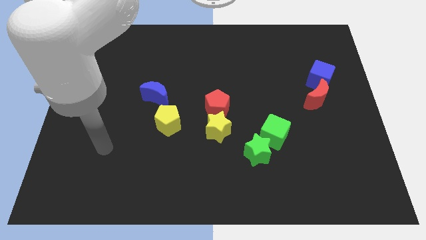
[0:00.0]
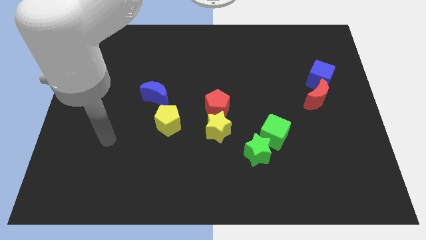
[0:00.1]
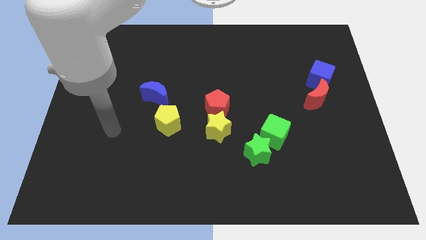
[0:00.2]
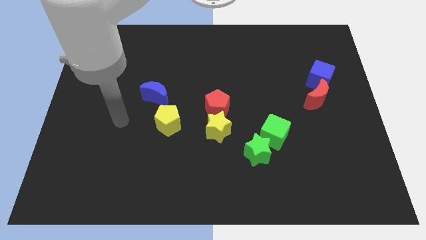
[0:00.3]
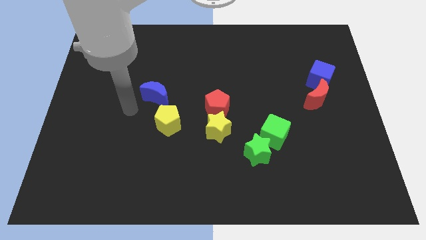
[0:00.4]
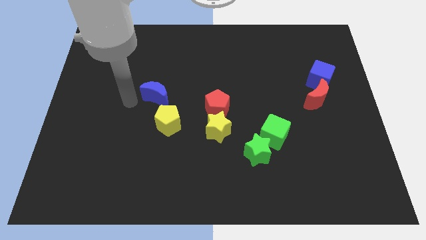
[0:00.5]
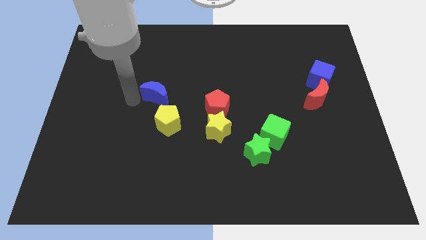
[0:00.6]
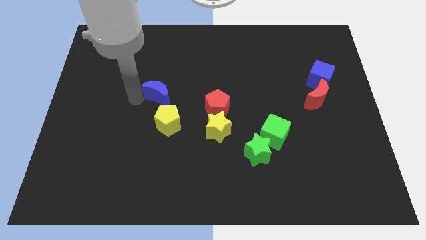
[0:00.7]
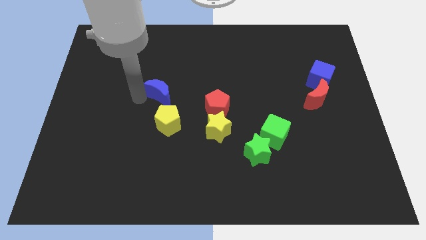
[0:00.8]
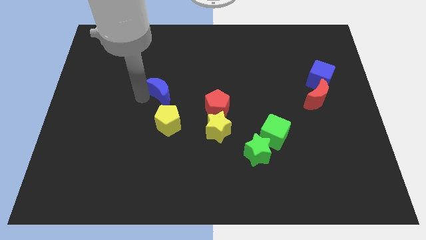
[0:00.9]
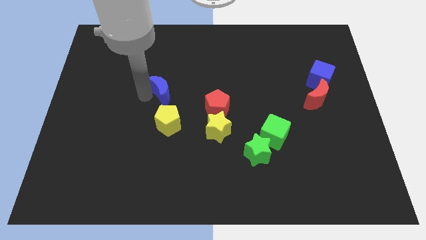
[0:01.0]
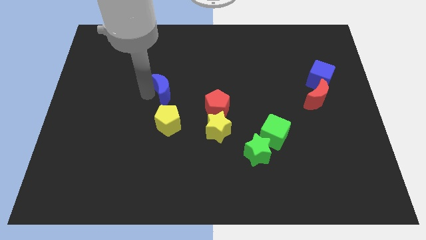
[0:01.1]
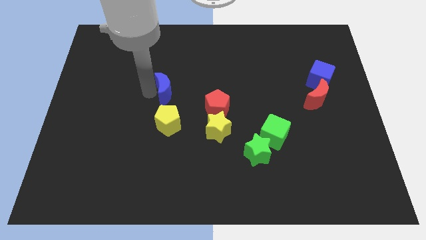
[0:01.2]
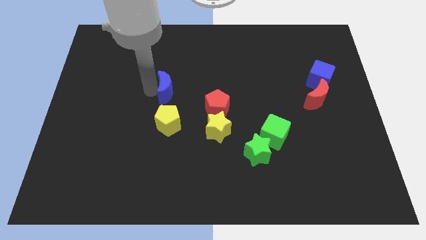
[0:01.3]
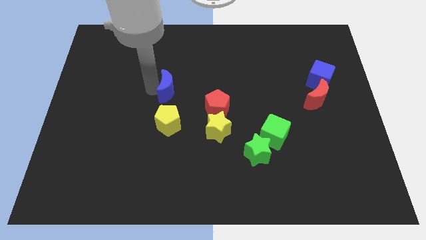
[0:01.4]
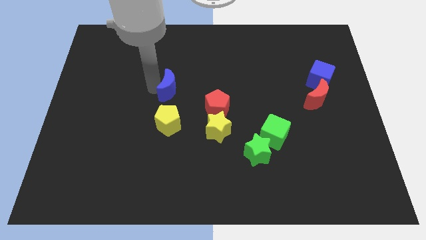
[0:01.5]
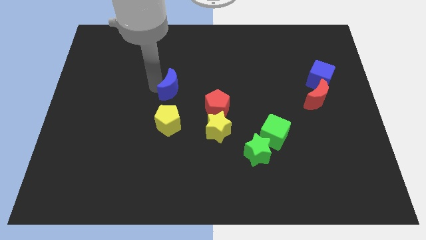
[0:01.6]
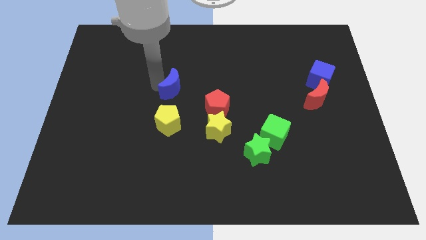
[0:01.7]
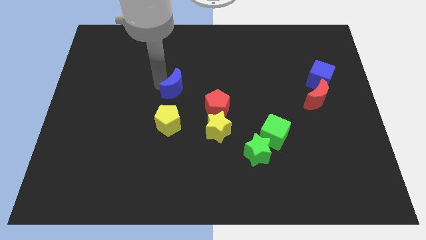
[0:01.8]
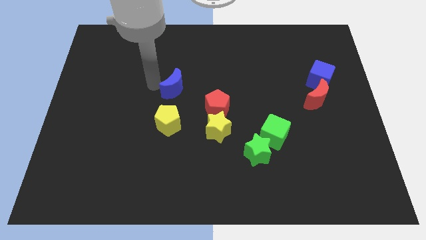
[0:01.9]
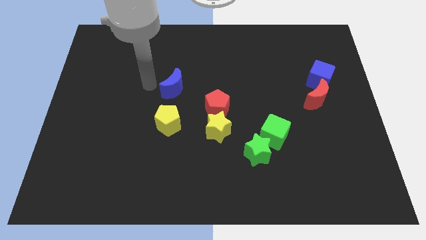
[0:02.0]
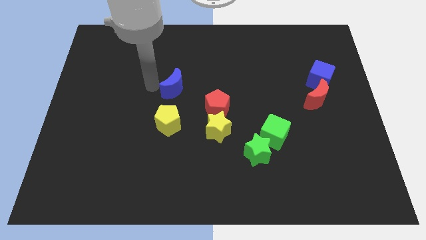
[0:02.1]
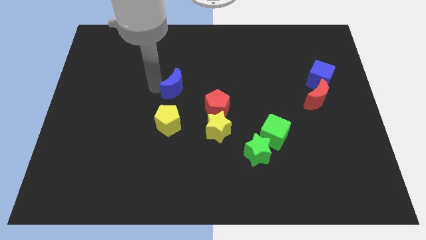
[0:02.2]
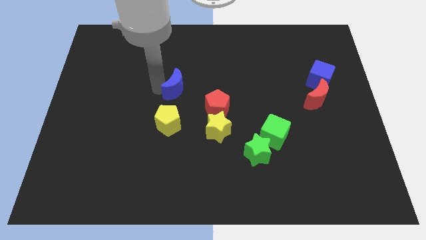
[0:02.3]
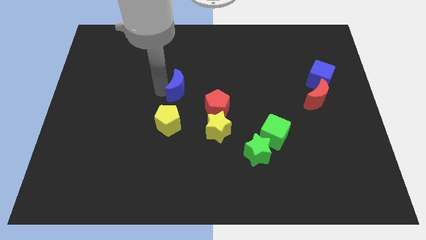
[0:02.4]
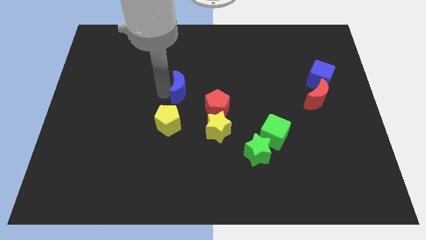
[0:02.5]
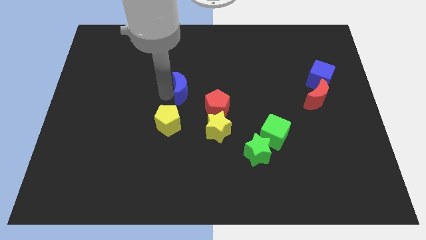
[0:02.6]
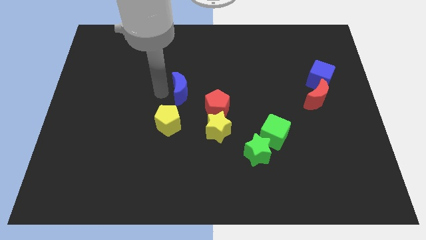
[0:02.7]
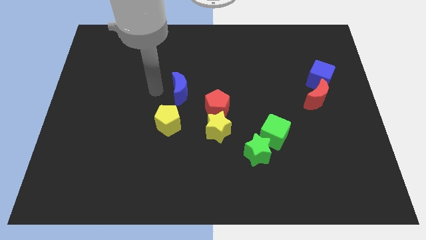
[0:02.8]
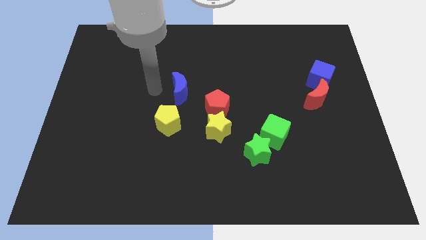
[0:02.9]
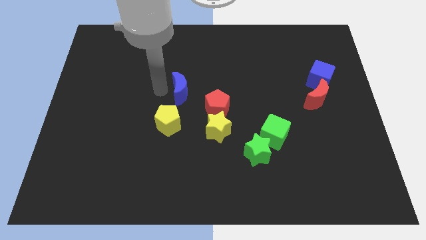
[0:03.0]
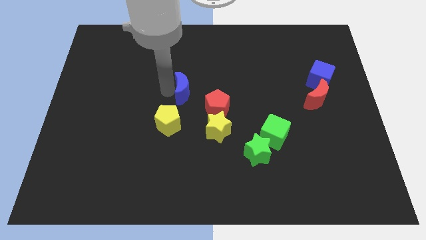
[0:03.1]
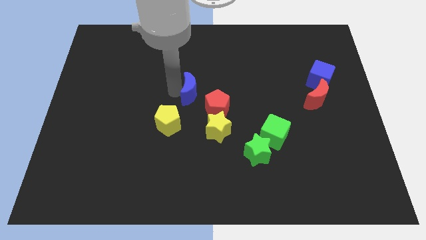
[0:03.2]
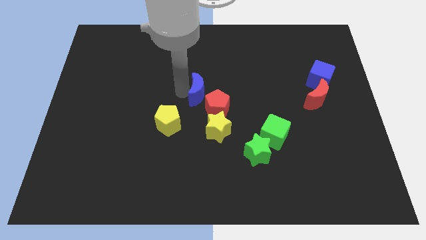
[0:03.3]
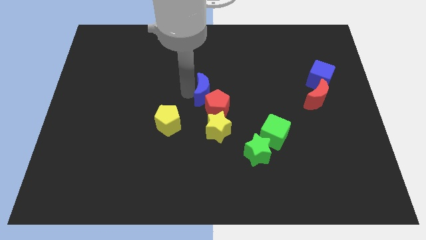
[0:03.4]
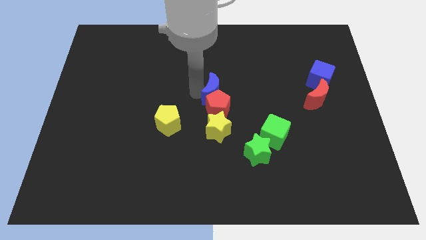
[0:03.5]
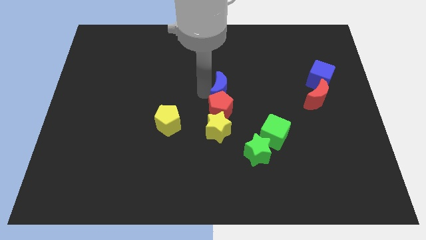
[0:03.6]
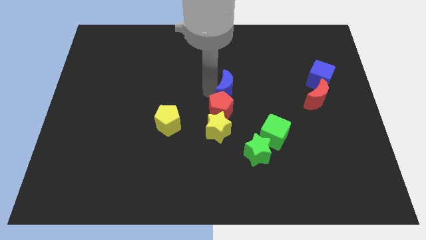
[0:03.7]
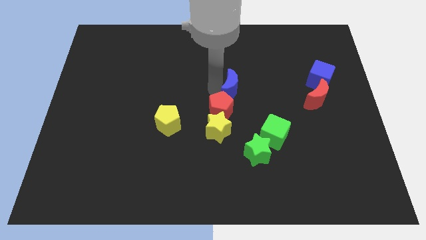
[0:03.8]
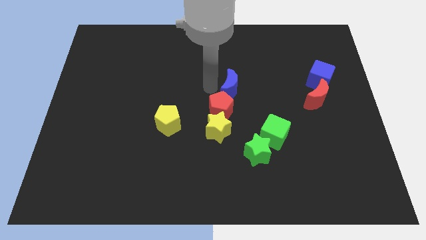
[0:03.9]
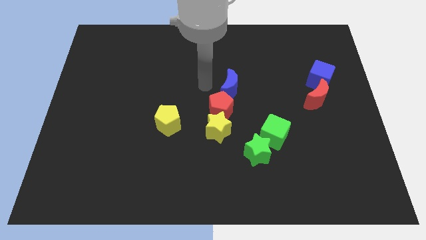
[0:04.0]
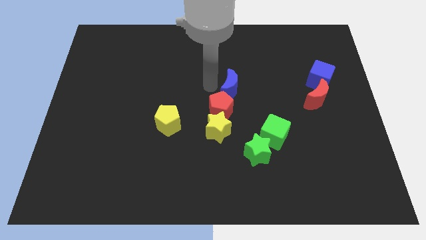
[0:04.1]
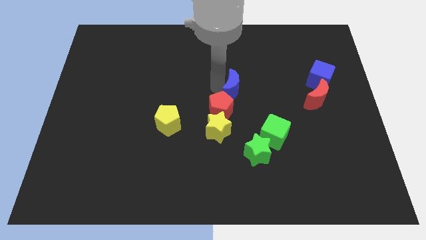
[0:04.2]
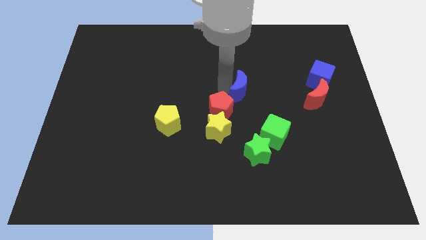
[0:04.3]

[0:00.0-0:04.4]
slide the blue moon right

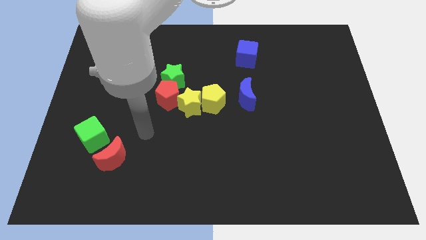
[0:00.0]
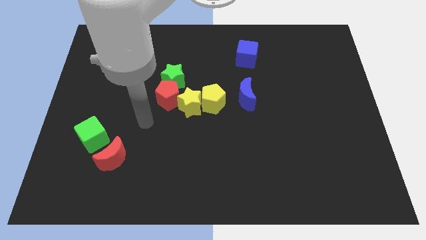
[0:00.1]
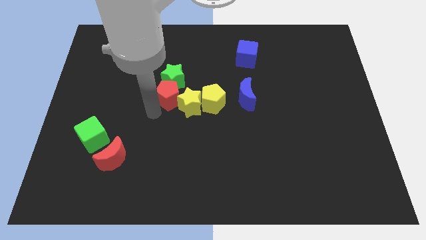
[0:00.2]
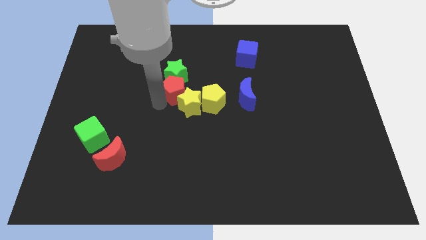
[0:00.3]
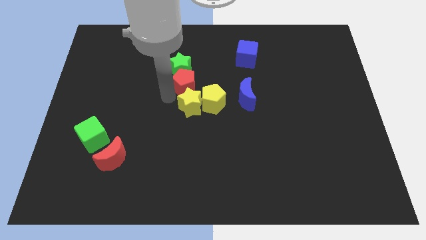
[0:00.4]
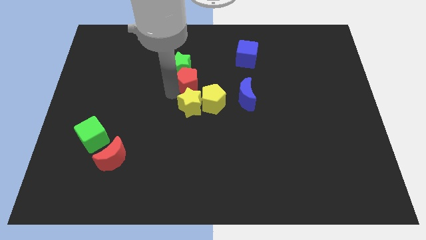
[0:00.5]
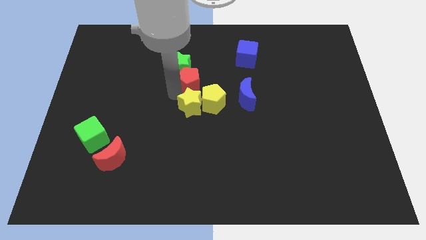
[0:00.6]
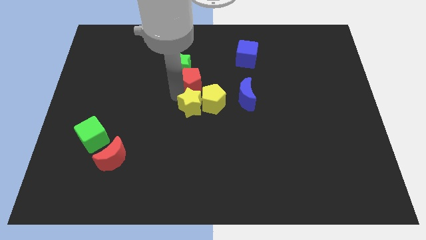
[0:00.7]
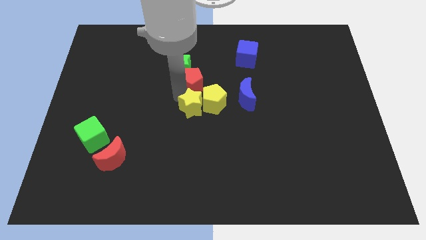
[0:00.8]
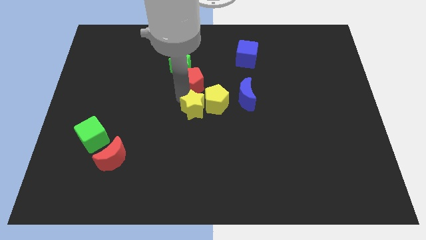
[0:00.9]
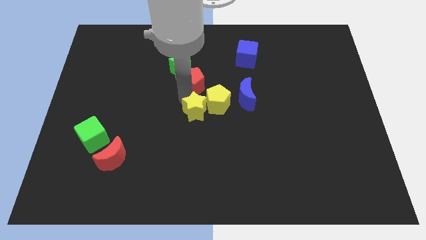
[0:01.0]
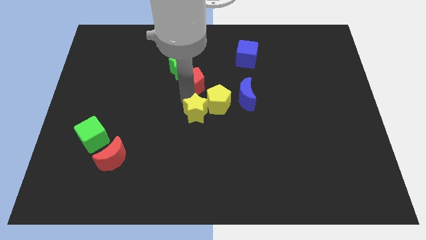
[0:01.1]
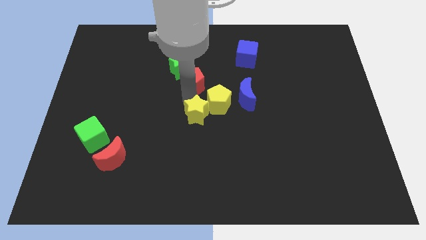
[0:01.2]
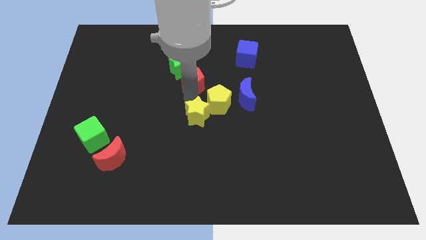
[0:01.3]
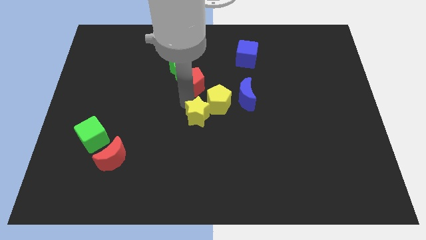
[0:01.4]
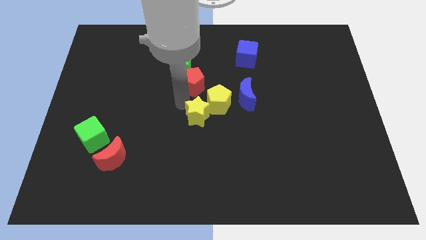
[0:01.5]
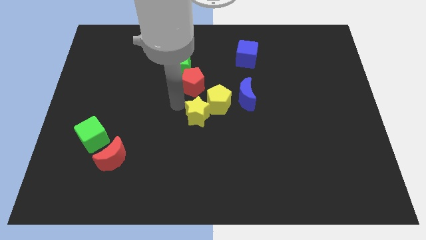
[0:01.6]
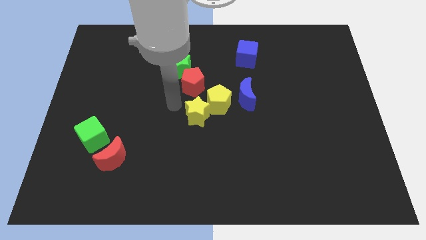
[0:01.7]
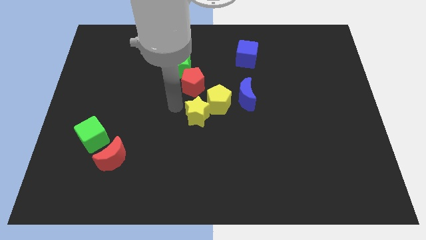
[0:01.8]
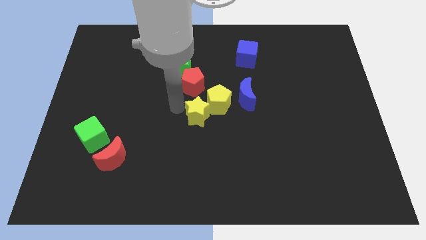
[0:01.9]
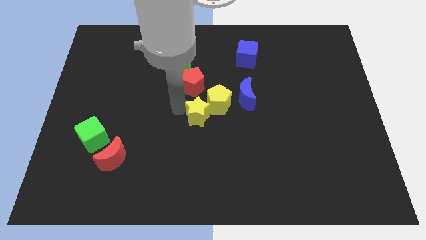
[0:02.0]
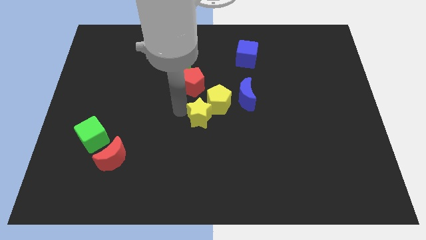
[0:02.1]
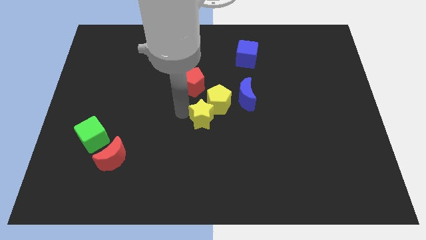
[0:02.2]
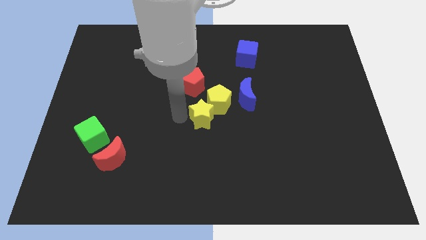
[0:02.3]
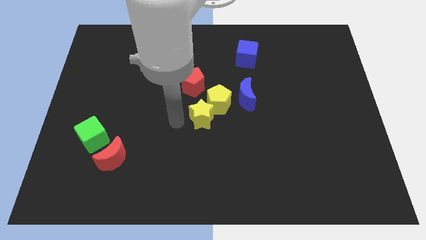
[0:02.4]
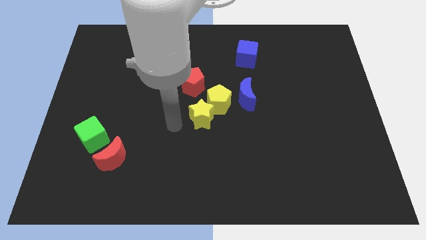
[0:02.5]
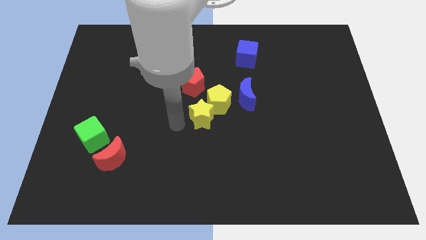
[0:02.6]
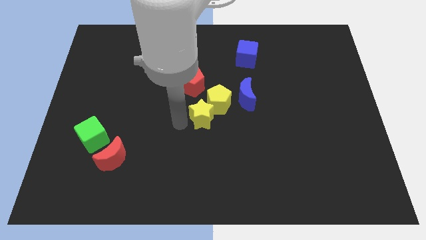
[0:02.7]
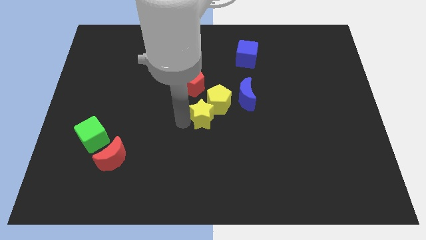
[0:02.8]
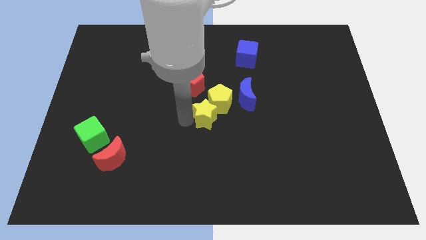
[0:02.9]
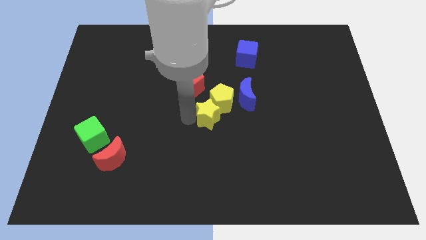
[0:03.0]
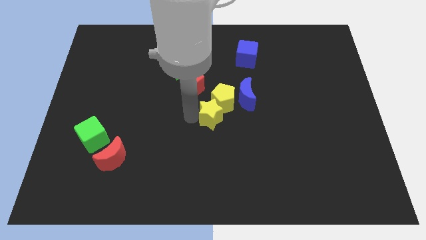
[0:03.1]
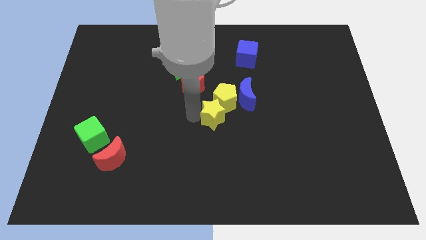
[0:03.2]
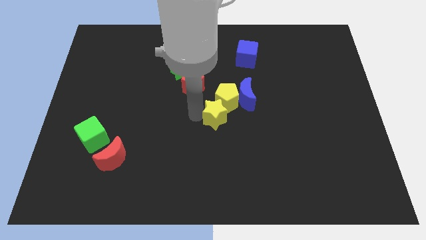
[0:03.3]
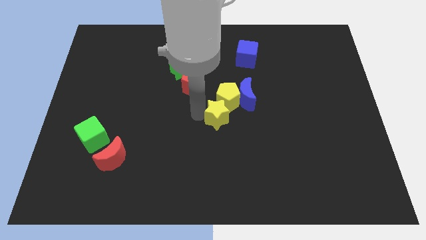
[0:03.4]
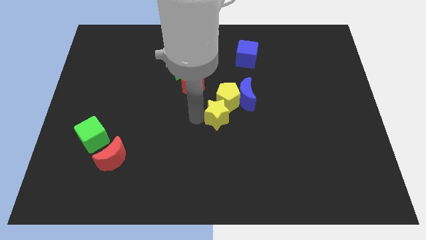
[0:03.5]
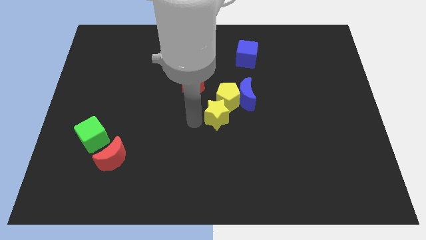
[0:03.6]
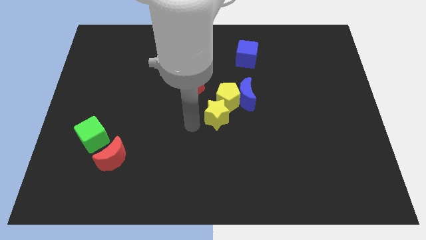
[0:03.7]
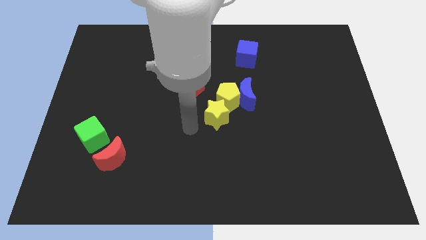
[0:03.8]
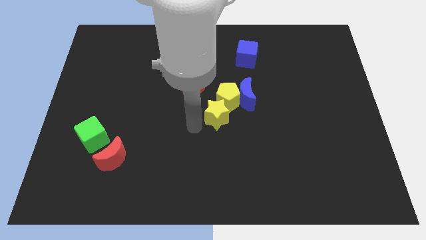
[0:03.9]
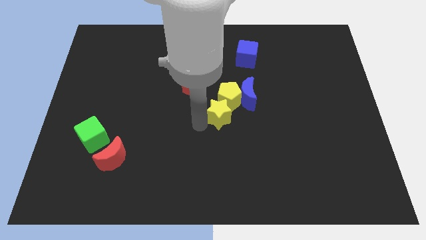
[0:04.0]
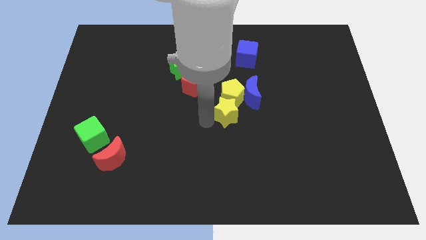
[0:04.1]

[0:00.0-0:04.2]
push the yellow star a bit right
